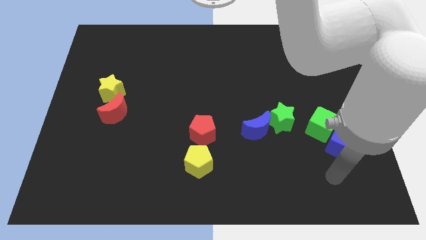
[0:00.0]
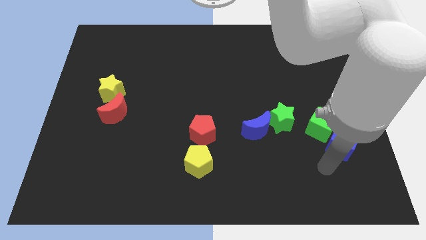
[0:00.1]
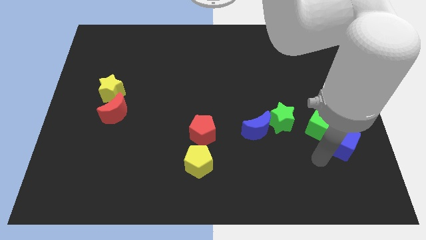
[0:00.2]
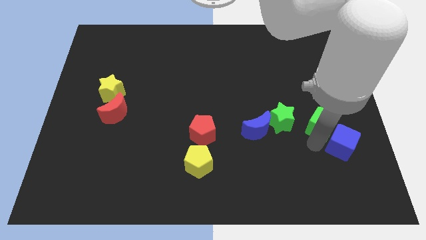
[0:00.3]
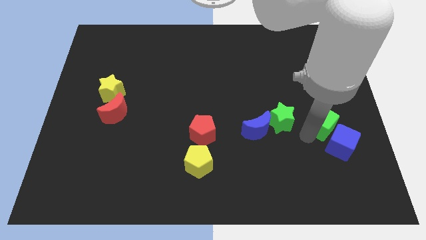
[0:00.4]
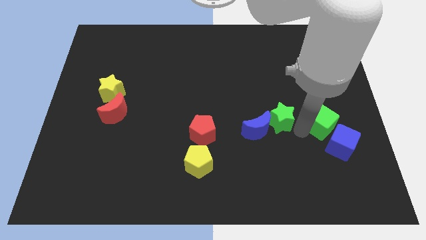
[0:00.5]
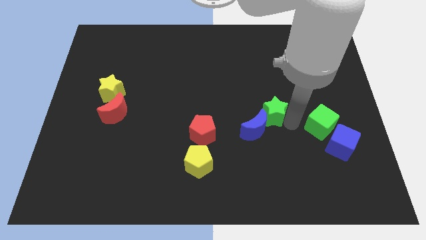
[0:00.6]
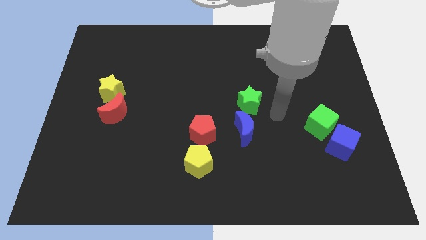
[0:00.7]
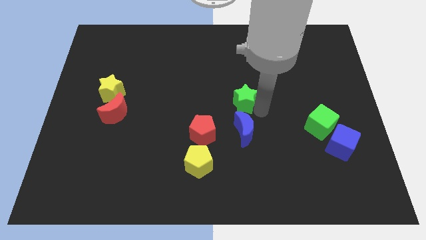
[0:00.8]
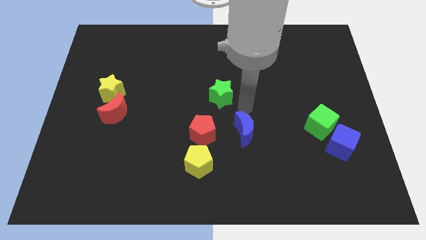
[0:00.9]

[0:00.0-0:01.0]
separate the blue moon from the green star

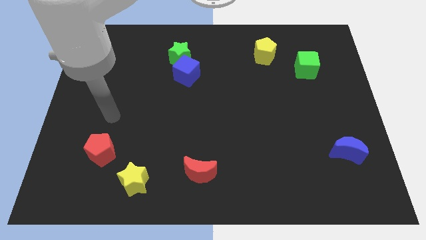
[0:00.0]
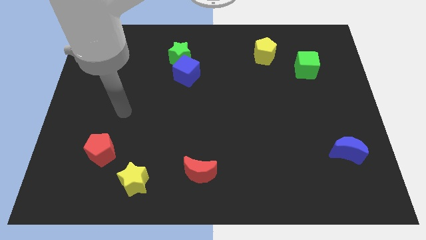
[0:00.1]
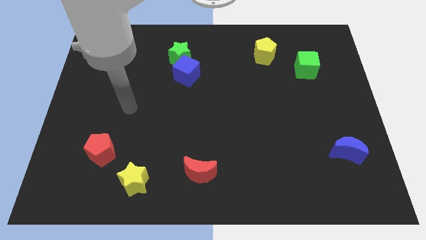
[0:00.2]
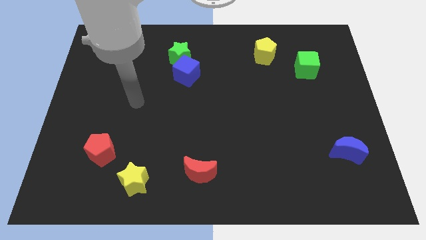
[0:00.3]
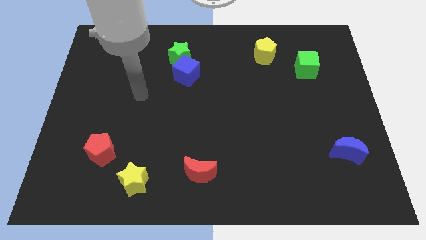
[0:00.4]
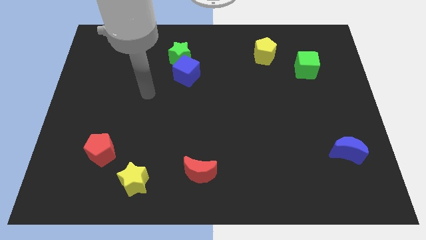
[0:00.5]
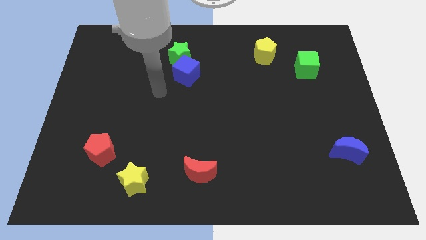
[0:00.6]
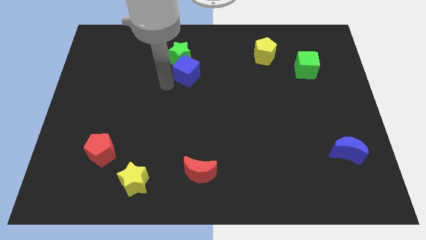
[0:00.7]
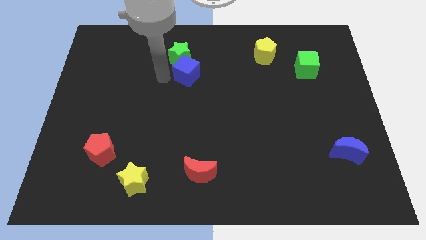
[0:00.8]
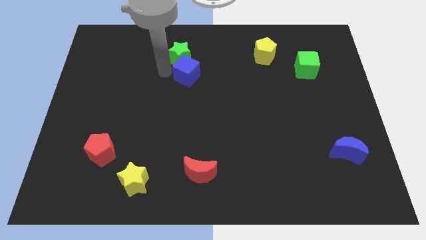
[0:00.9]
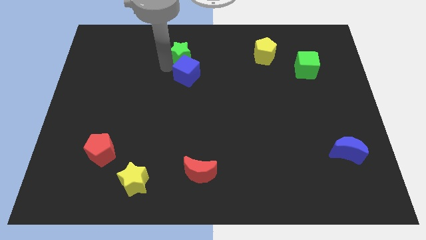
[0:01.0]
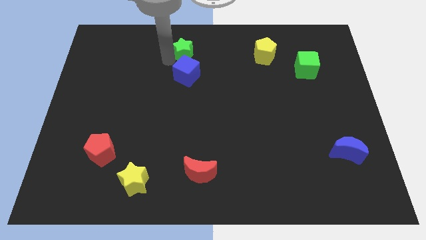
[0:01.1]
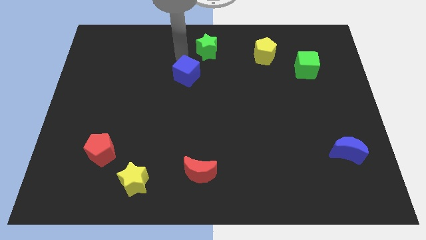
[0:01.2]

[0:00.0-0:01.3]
pull the blue cube apart from the green star

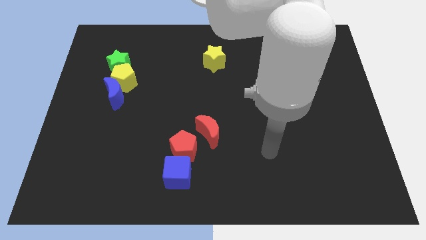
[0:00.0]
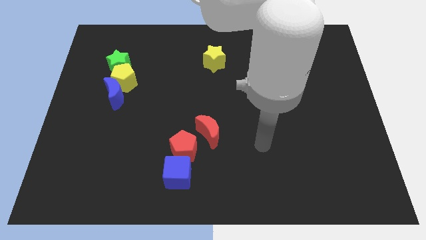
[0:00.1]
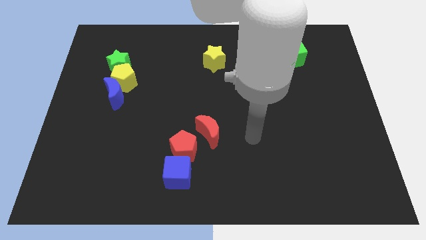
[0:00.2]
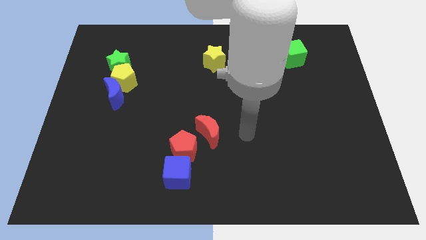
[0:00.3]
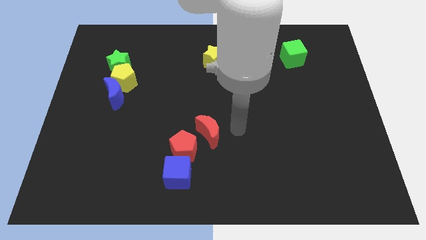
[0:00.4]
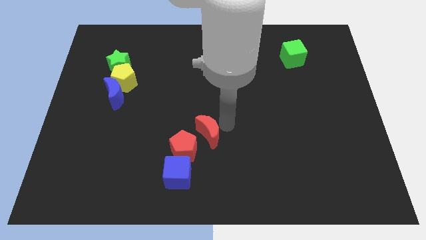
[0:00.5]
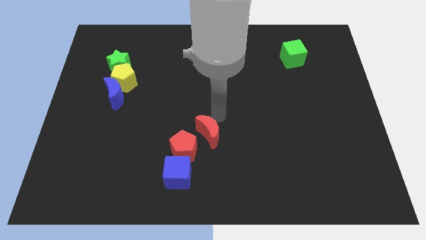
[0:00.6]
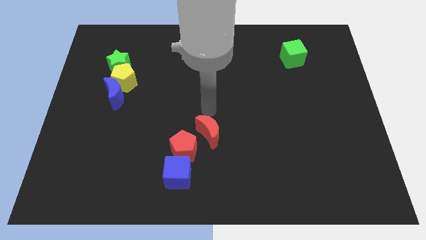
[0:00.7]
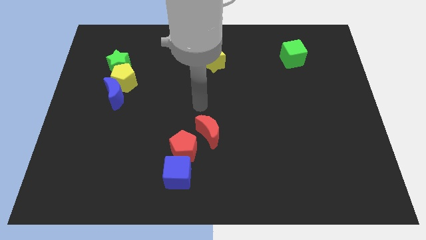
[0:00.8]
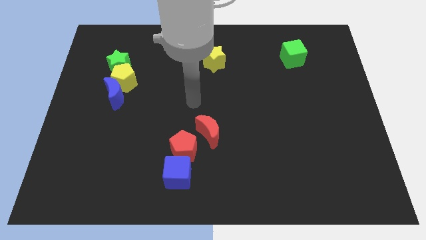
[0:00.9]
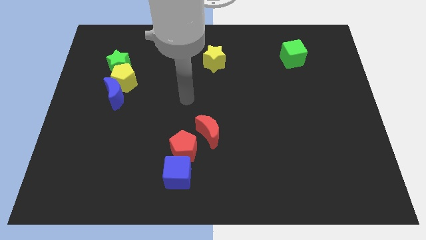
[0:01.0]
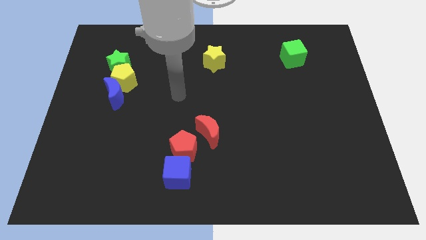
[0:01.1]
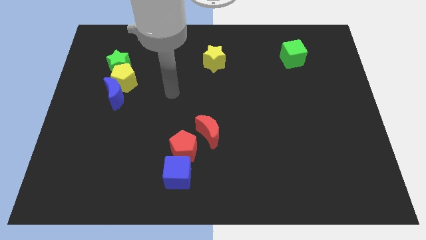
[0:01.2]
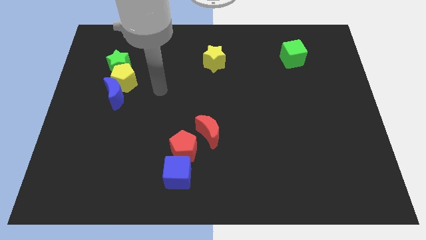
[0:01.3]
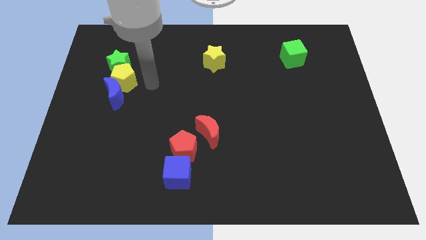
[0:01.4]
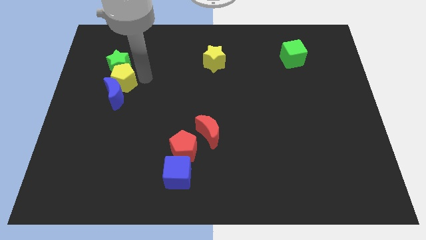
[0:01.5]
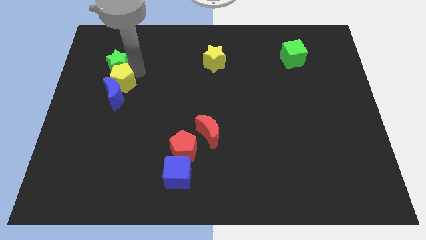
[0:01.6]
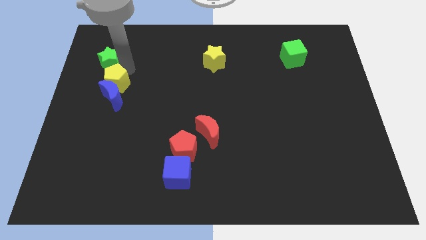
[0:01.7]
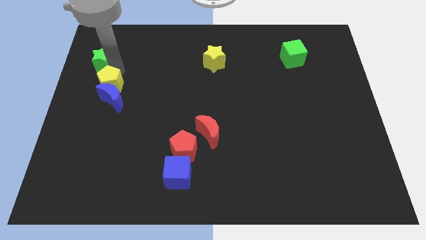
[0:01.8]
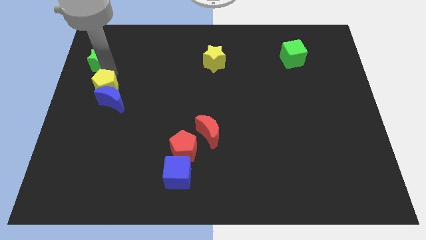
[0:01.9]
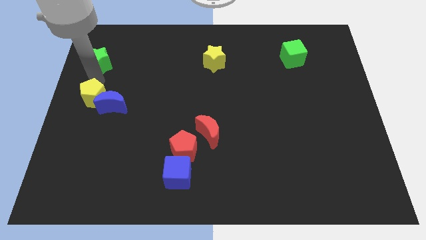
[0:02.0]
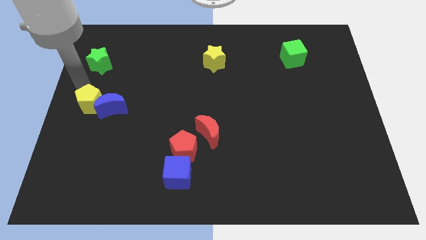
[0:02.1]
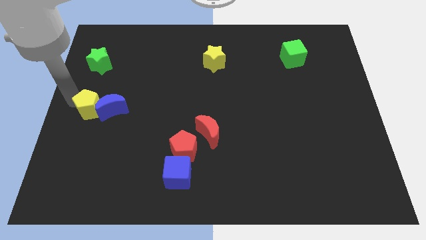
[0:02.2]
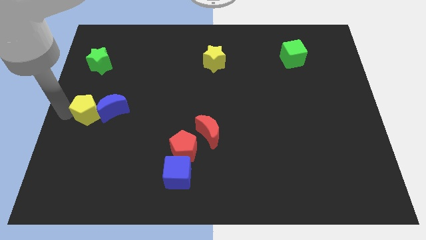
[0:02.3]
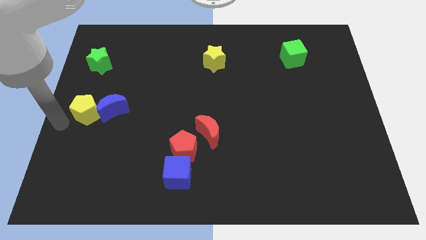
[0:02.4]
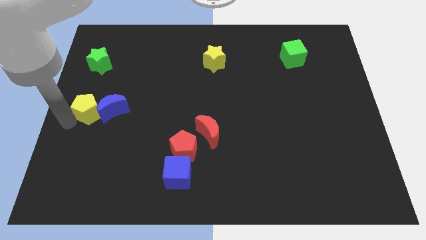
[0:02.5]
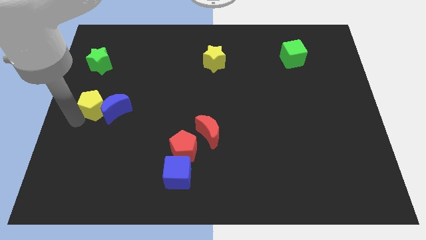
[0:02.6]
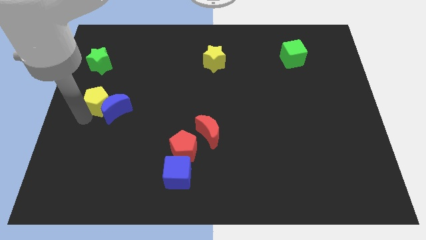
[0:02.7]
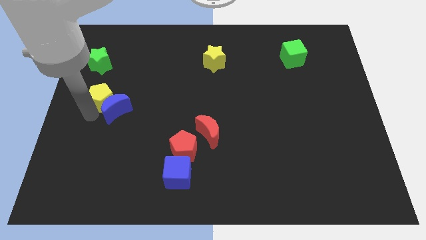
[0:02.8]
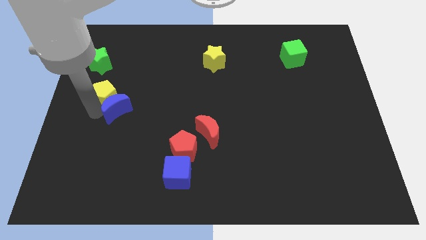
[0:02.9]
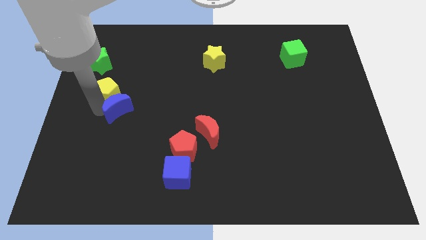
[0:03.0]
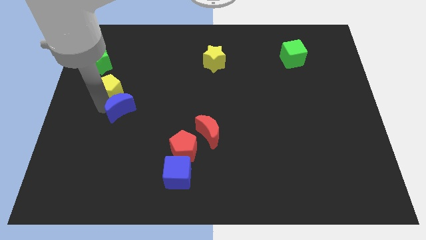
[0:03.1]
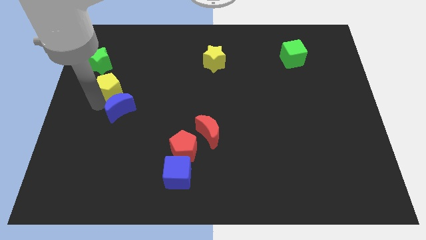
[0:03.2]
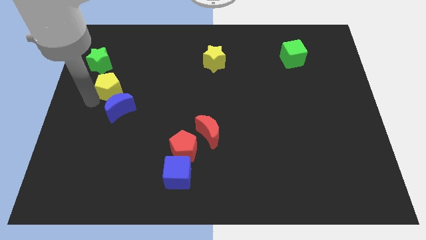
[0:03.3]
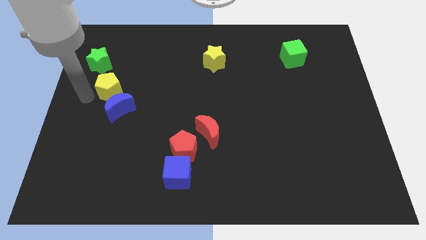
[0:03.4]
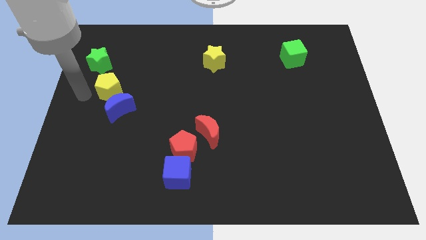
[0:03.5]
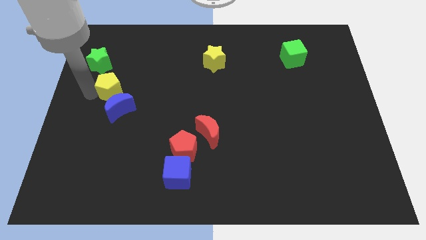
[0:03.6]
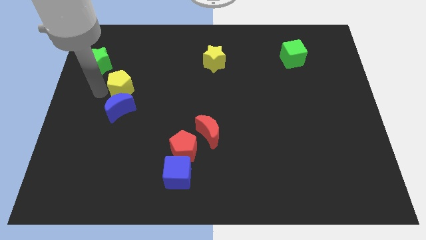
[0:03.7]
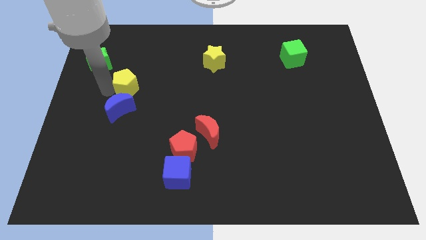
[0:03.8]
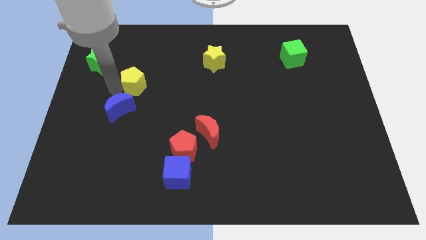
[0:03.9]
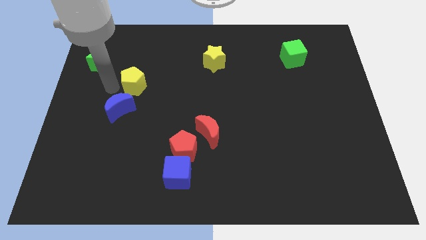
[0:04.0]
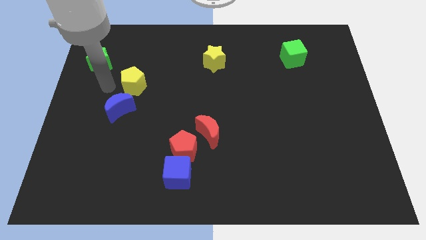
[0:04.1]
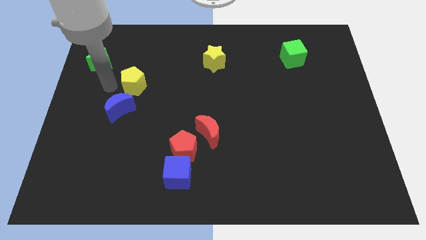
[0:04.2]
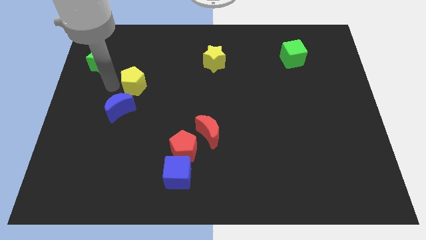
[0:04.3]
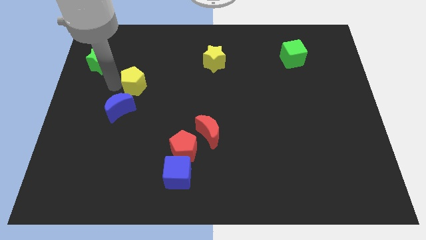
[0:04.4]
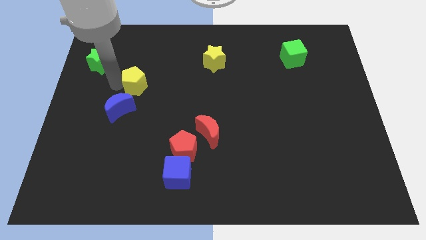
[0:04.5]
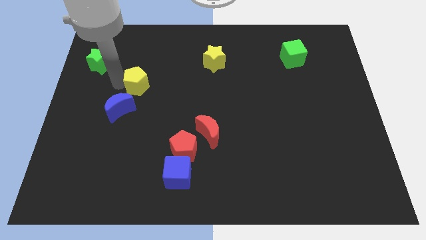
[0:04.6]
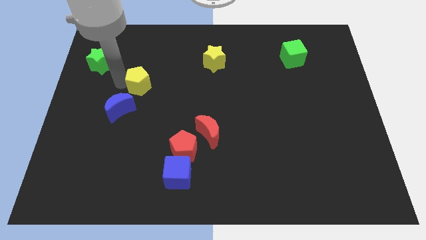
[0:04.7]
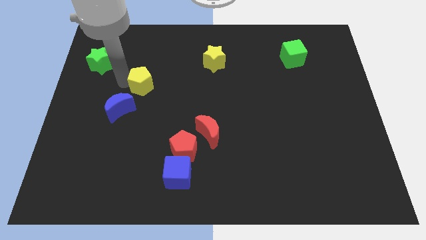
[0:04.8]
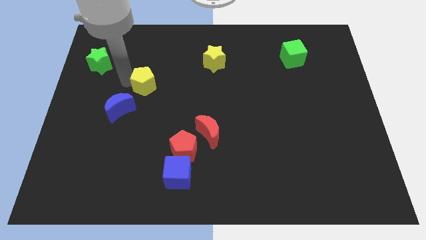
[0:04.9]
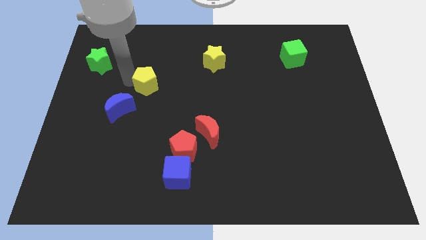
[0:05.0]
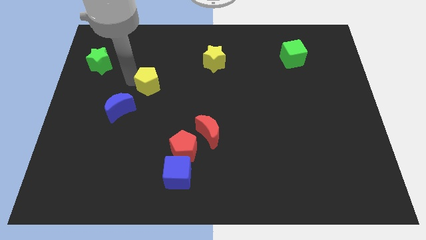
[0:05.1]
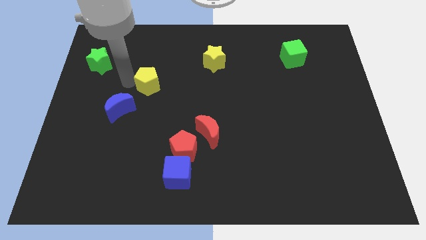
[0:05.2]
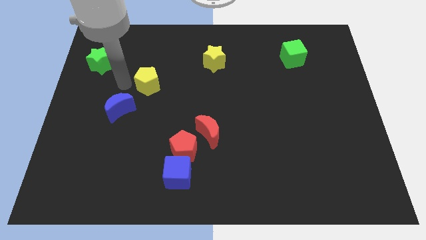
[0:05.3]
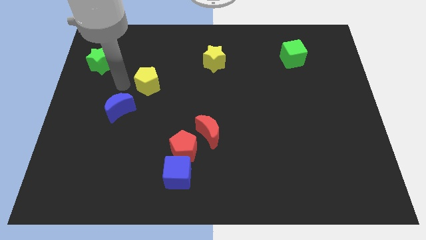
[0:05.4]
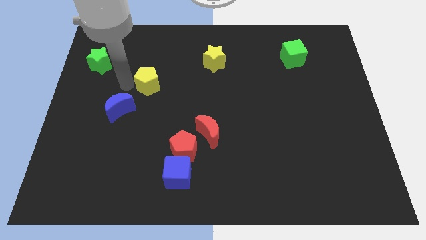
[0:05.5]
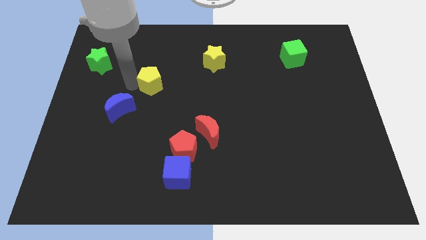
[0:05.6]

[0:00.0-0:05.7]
pull the yellow pentagon apart from the blue moon and green star

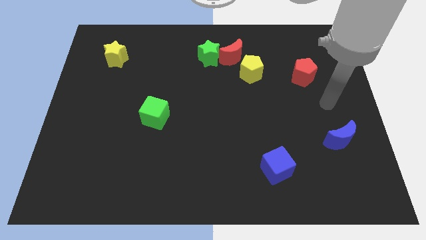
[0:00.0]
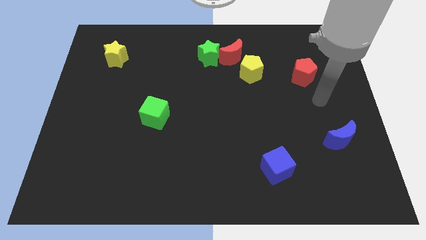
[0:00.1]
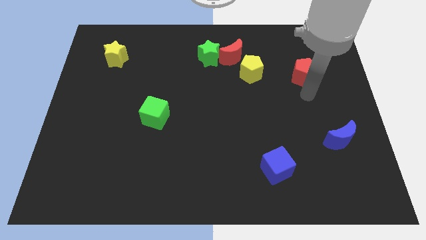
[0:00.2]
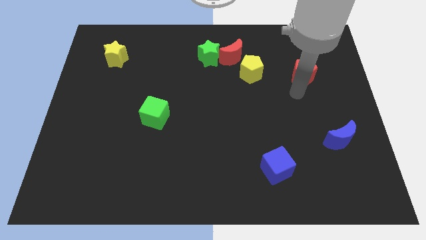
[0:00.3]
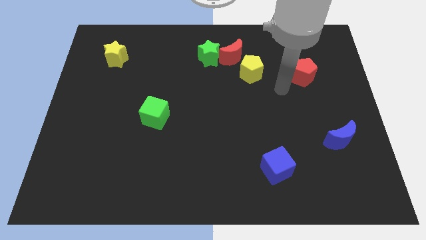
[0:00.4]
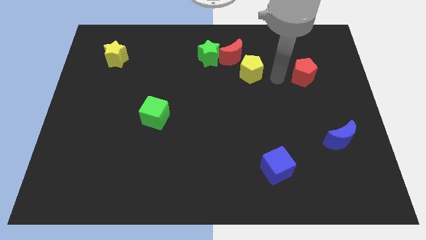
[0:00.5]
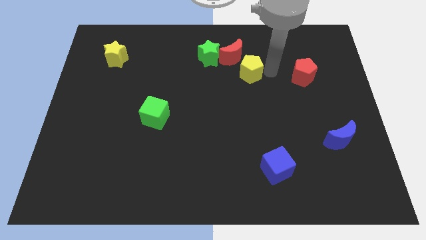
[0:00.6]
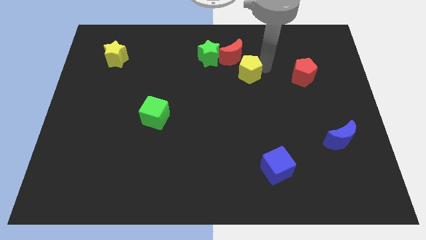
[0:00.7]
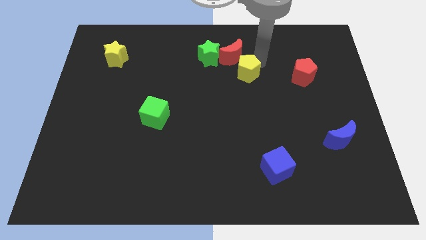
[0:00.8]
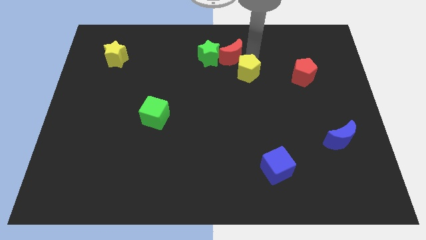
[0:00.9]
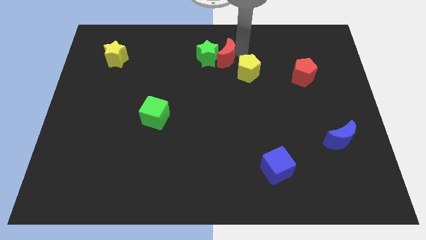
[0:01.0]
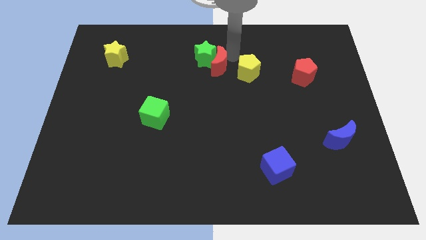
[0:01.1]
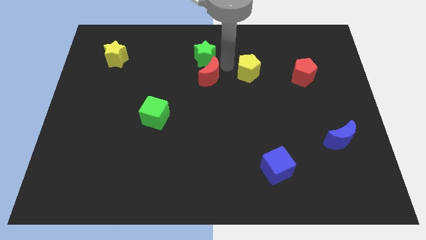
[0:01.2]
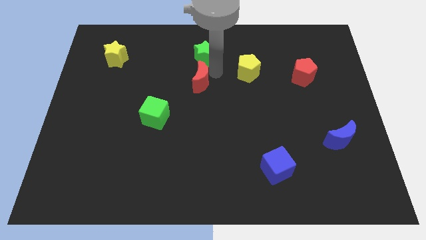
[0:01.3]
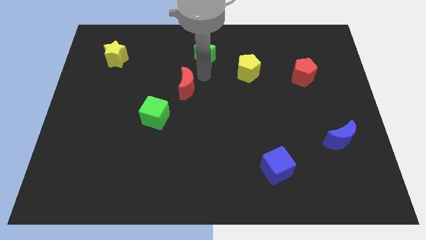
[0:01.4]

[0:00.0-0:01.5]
pull the green star apart from the red moon
